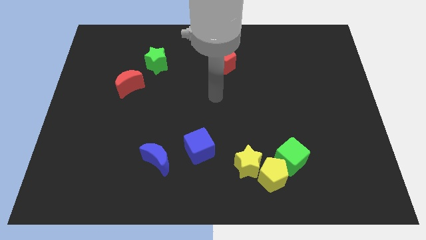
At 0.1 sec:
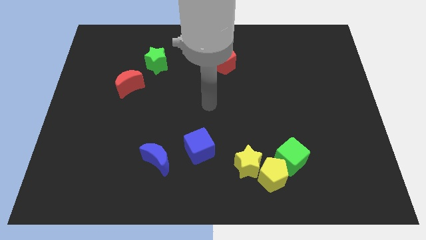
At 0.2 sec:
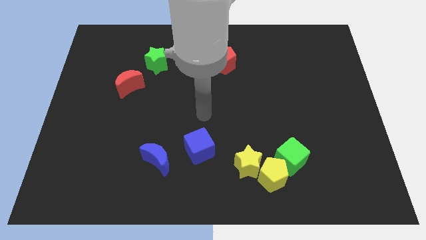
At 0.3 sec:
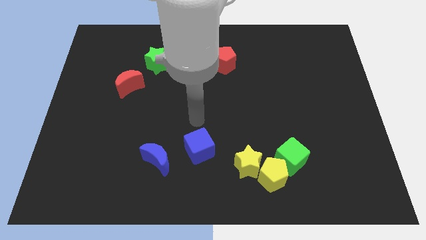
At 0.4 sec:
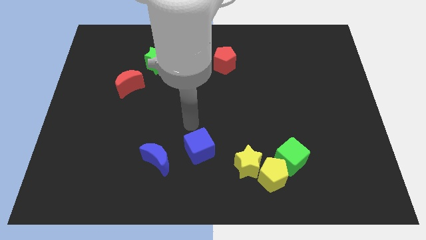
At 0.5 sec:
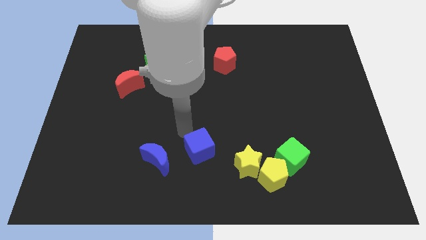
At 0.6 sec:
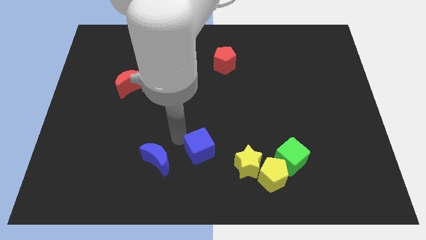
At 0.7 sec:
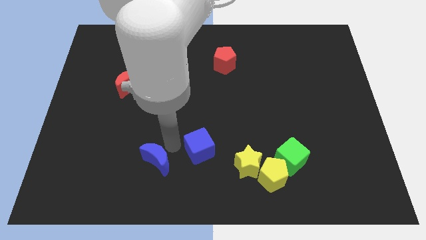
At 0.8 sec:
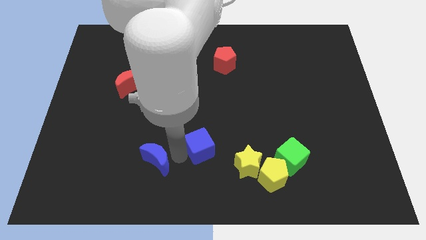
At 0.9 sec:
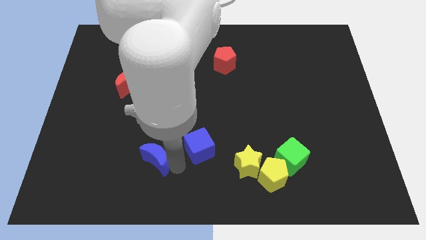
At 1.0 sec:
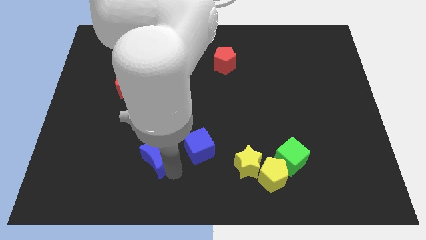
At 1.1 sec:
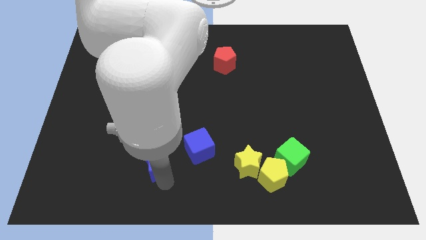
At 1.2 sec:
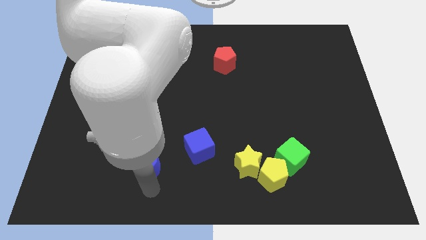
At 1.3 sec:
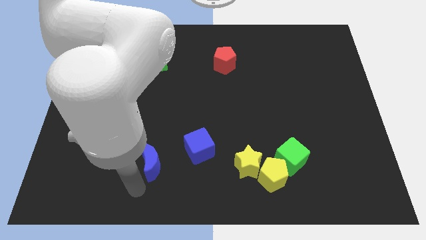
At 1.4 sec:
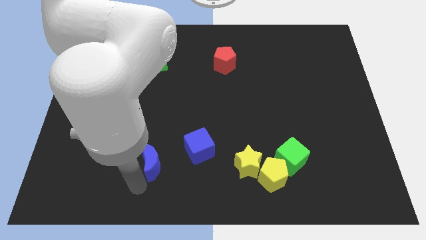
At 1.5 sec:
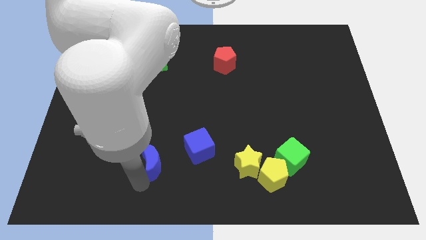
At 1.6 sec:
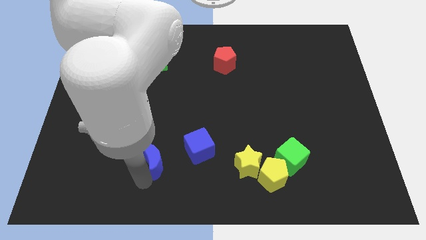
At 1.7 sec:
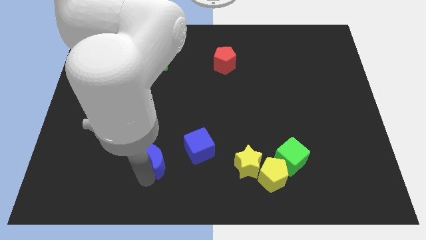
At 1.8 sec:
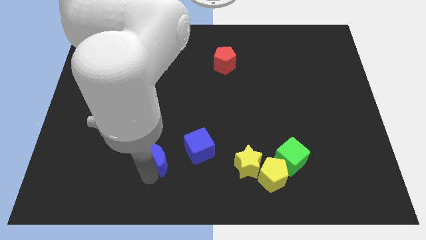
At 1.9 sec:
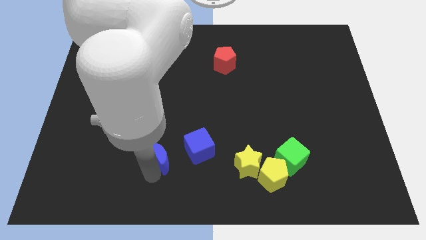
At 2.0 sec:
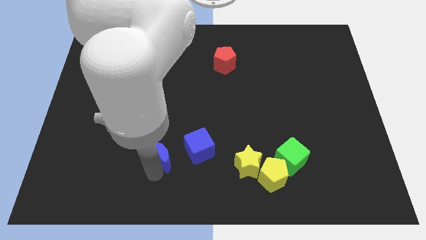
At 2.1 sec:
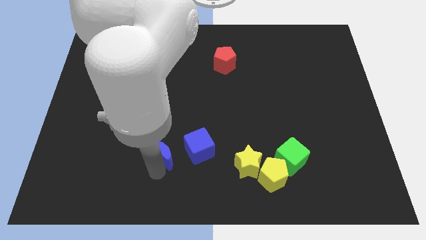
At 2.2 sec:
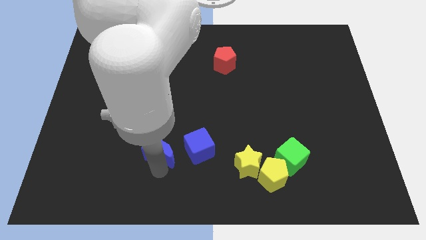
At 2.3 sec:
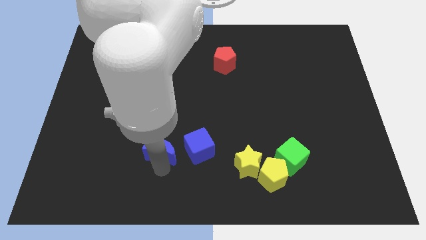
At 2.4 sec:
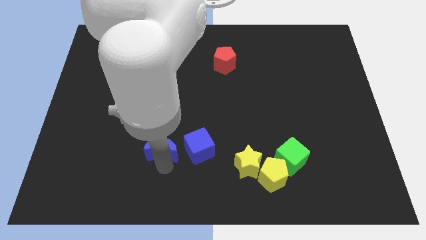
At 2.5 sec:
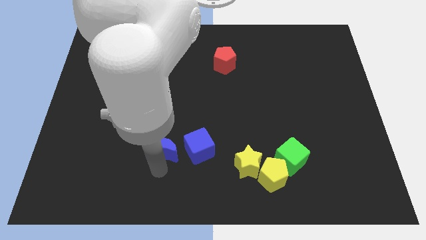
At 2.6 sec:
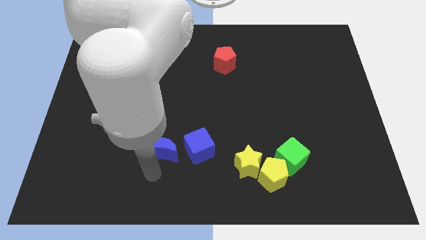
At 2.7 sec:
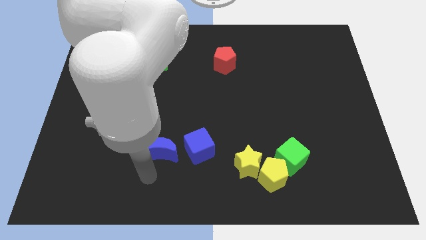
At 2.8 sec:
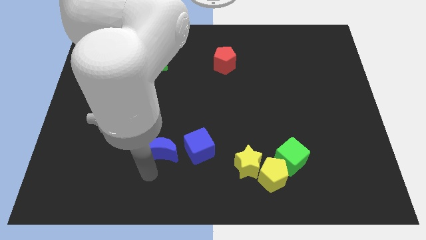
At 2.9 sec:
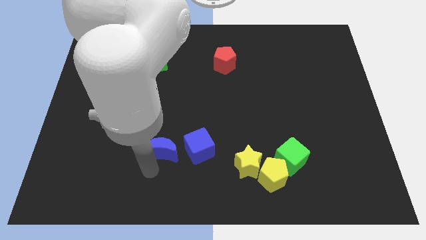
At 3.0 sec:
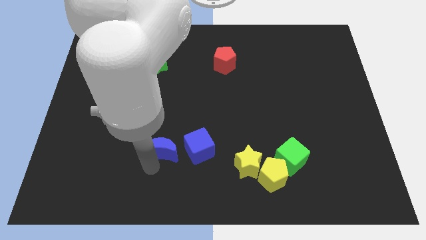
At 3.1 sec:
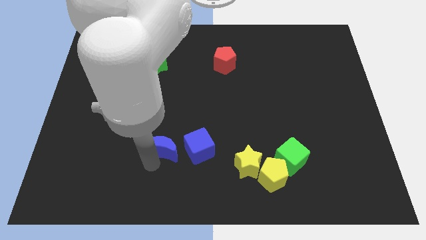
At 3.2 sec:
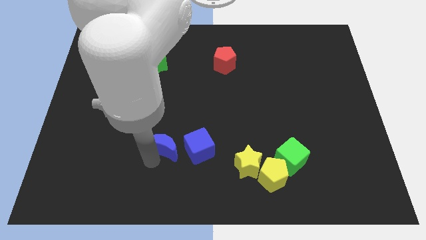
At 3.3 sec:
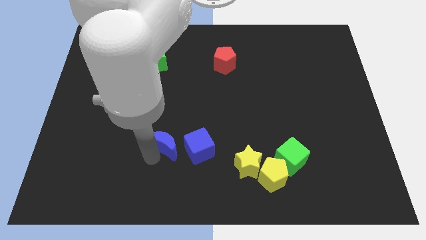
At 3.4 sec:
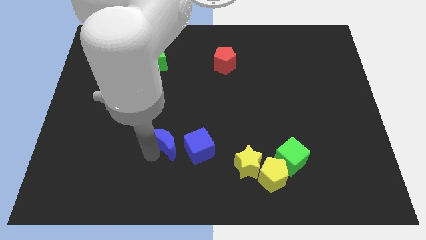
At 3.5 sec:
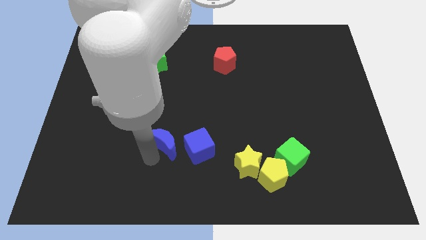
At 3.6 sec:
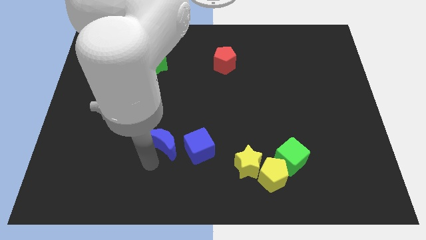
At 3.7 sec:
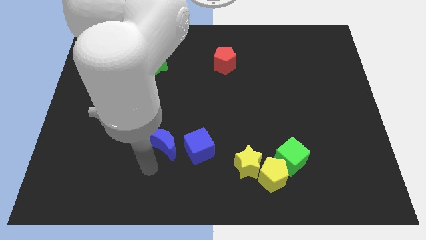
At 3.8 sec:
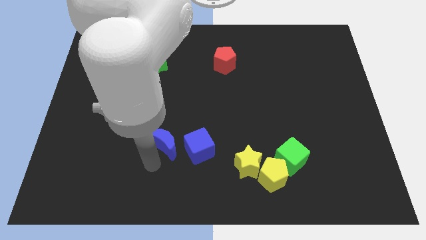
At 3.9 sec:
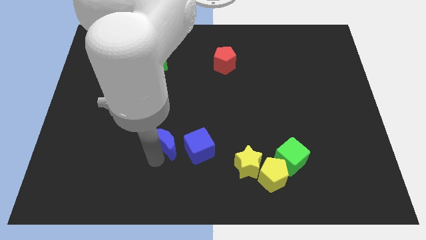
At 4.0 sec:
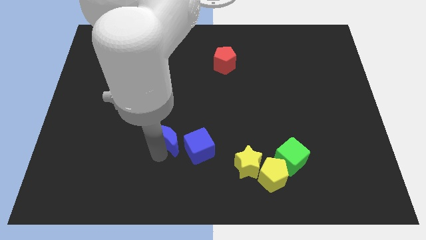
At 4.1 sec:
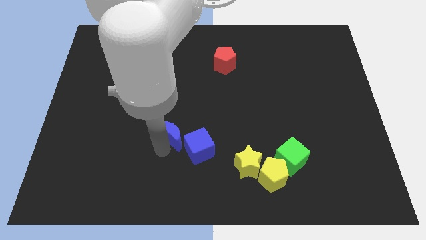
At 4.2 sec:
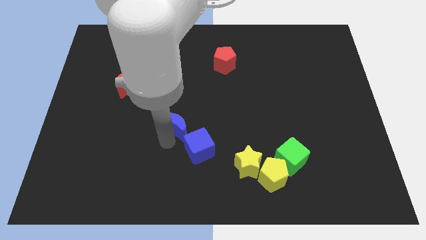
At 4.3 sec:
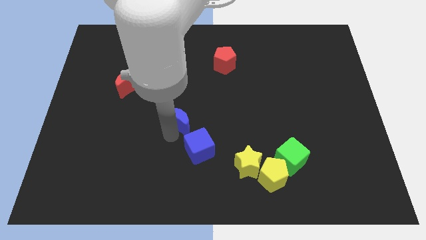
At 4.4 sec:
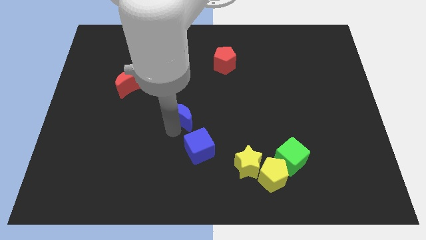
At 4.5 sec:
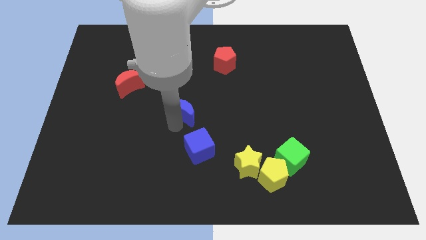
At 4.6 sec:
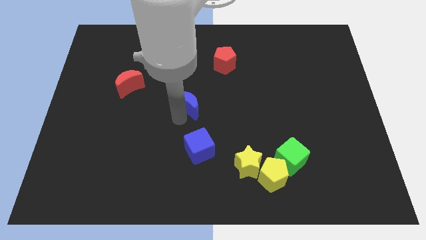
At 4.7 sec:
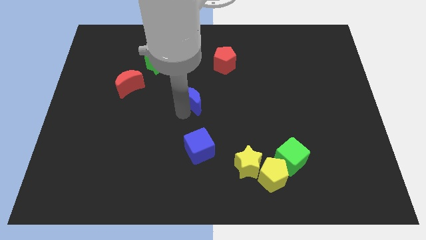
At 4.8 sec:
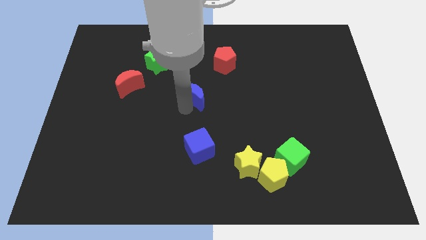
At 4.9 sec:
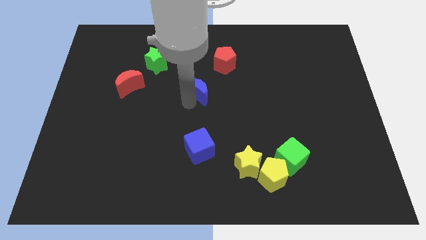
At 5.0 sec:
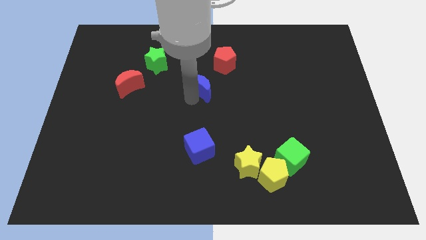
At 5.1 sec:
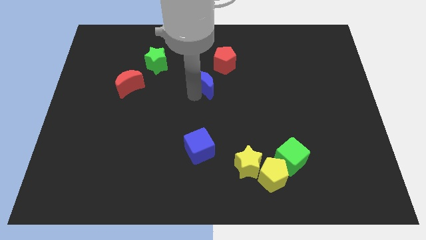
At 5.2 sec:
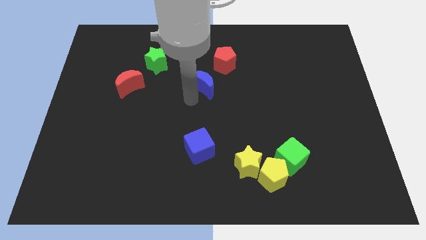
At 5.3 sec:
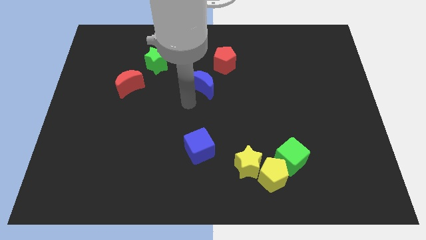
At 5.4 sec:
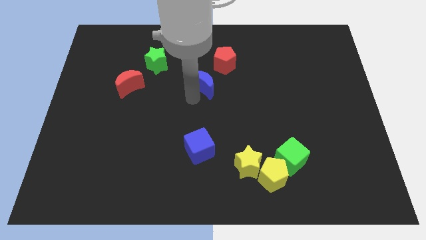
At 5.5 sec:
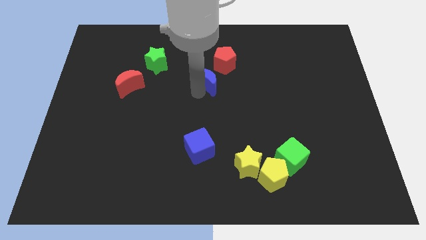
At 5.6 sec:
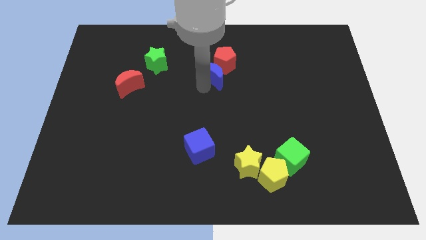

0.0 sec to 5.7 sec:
slide the blue moon next to the red pentagon

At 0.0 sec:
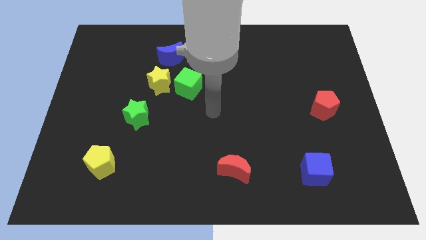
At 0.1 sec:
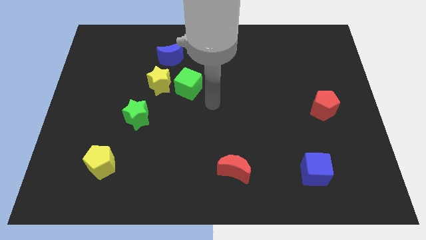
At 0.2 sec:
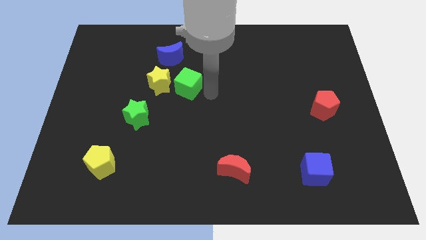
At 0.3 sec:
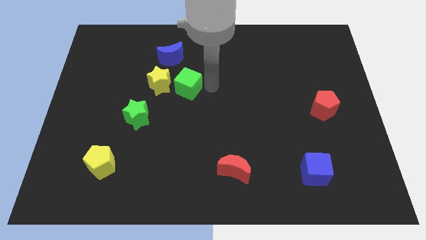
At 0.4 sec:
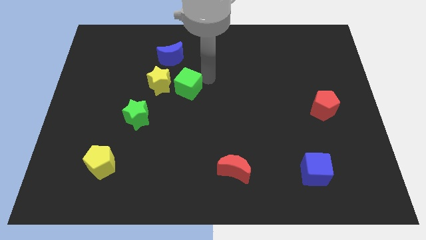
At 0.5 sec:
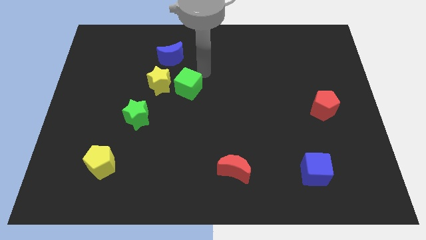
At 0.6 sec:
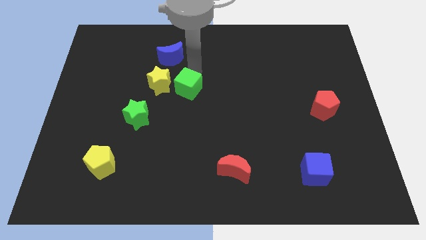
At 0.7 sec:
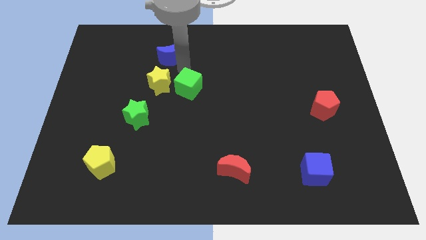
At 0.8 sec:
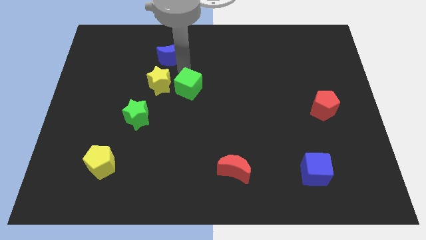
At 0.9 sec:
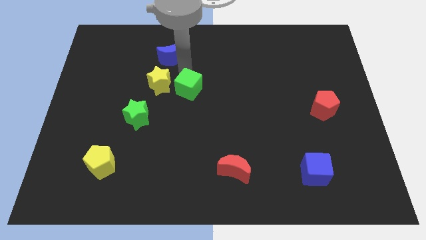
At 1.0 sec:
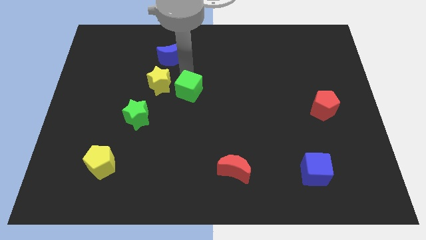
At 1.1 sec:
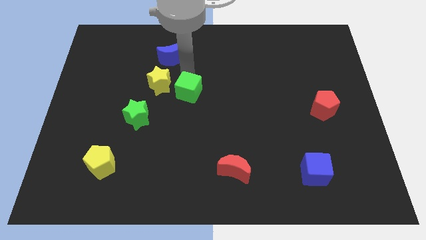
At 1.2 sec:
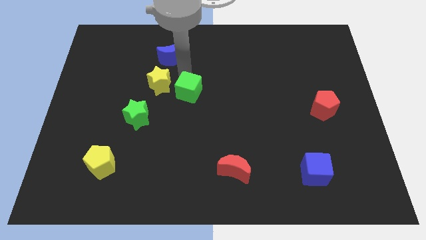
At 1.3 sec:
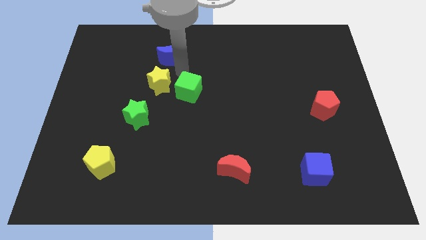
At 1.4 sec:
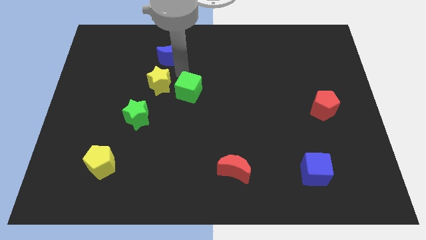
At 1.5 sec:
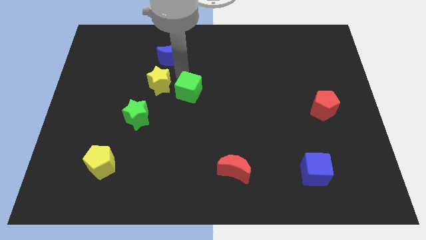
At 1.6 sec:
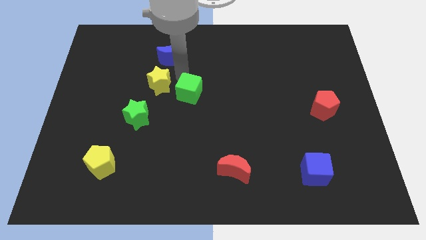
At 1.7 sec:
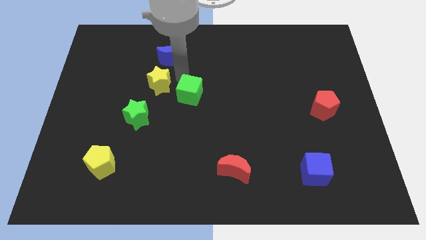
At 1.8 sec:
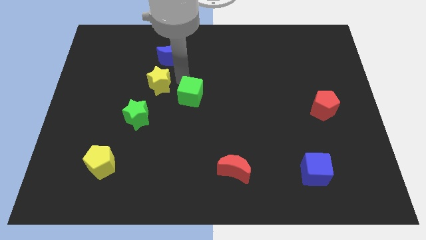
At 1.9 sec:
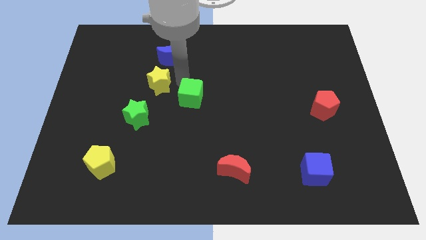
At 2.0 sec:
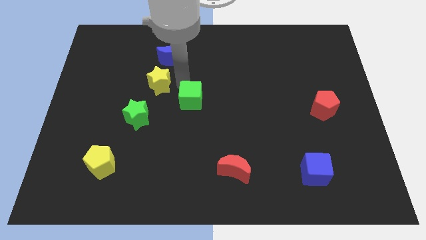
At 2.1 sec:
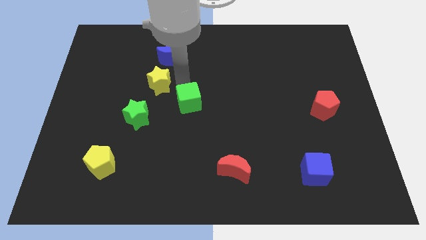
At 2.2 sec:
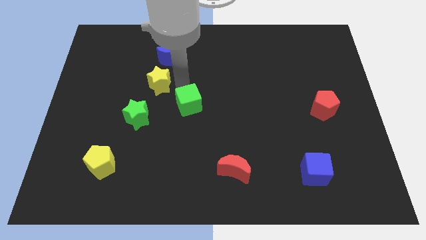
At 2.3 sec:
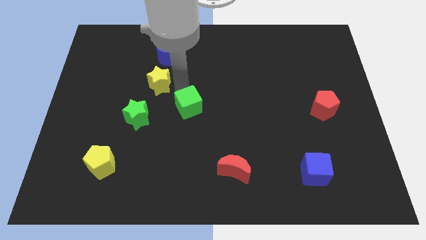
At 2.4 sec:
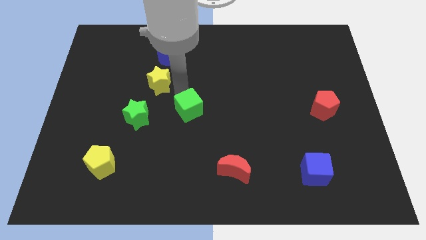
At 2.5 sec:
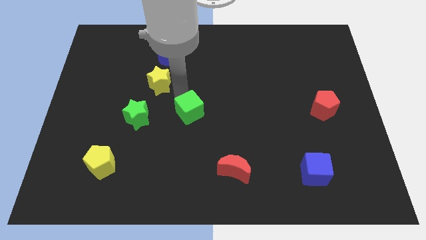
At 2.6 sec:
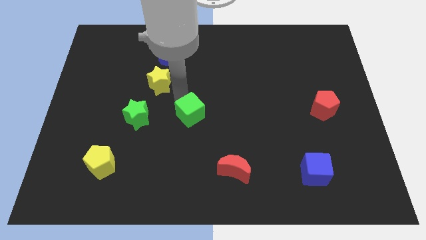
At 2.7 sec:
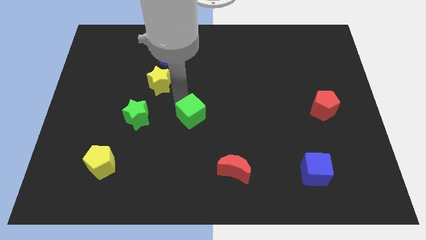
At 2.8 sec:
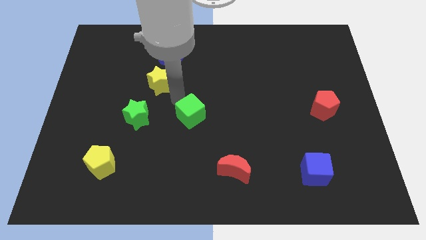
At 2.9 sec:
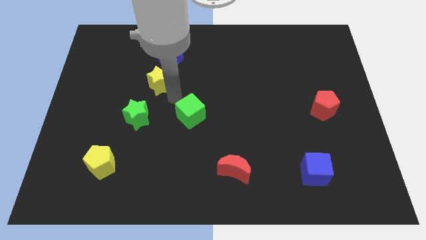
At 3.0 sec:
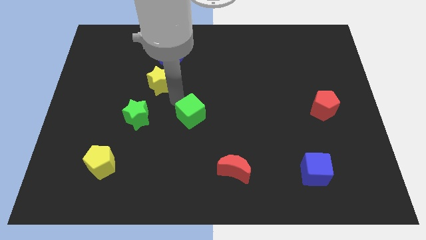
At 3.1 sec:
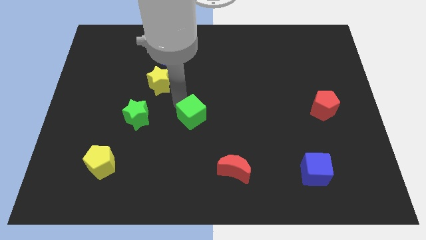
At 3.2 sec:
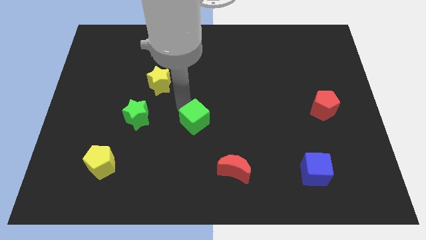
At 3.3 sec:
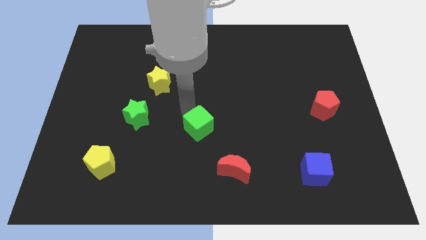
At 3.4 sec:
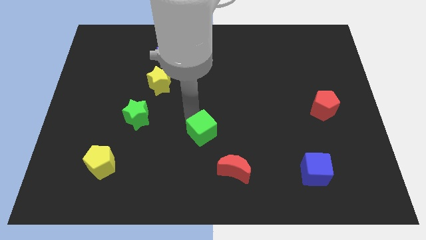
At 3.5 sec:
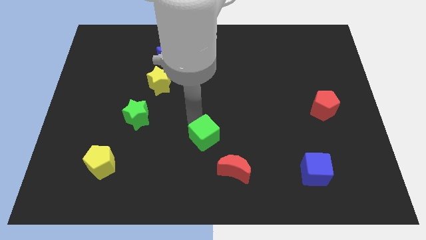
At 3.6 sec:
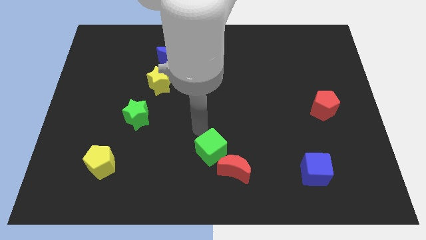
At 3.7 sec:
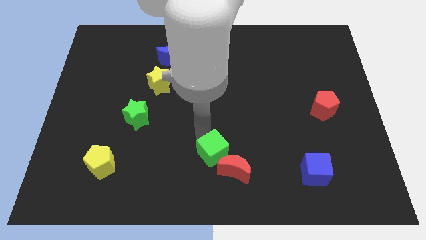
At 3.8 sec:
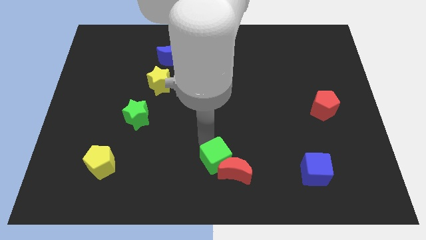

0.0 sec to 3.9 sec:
put the green cube next to the red moon
